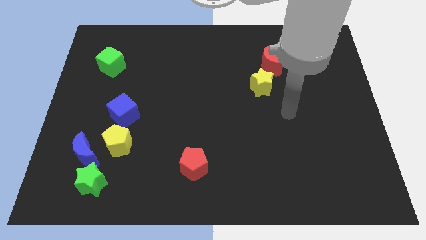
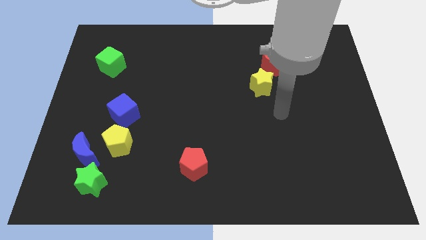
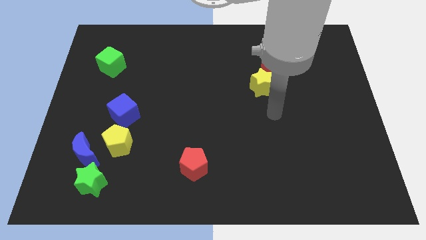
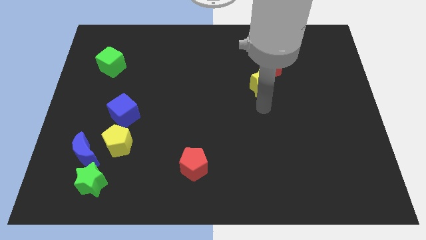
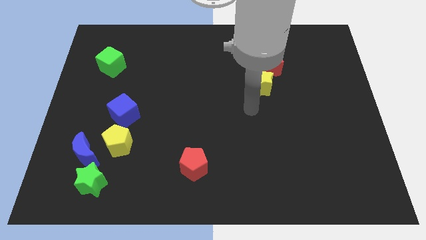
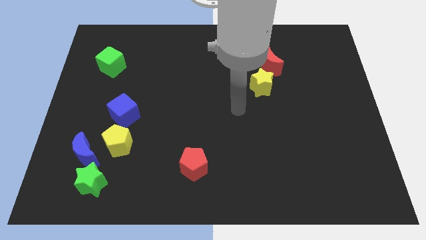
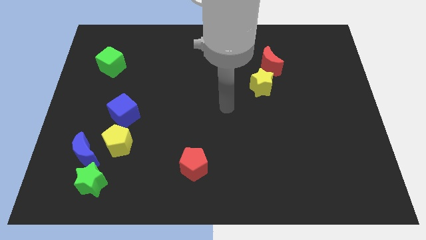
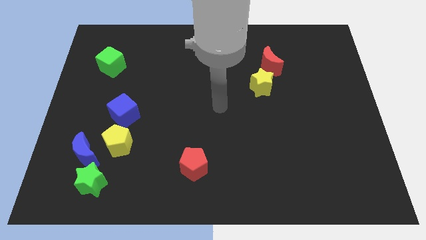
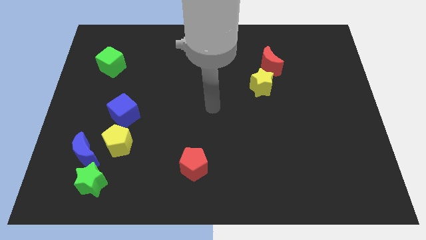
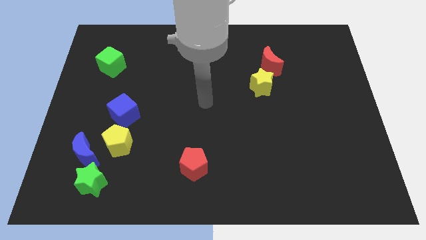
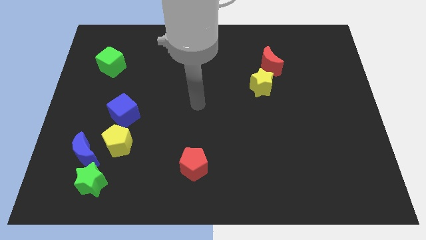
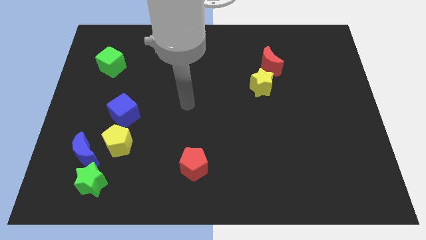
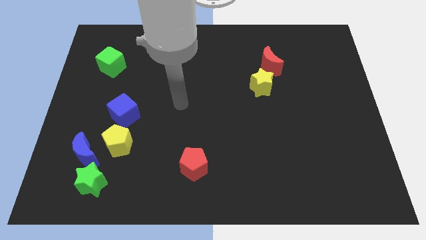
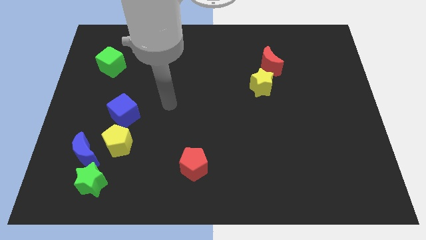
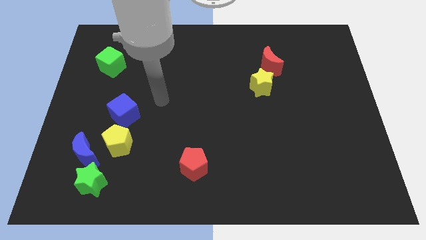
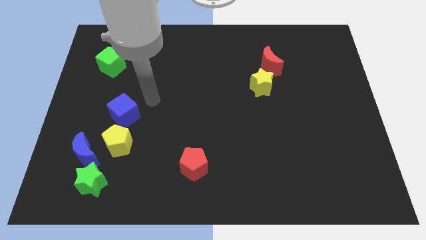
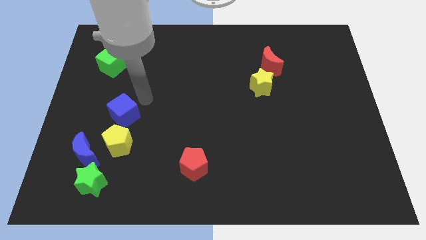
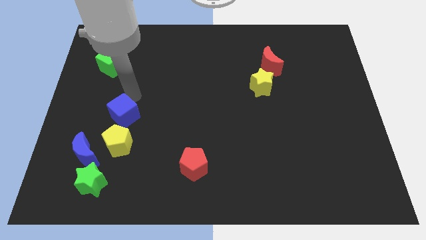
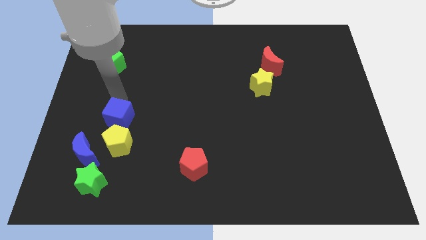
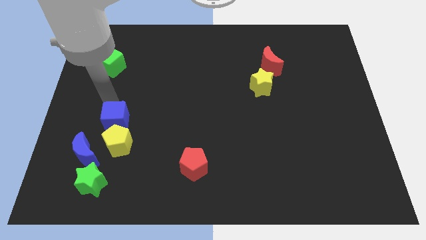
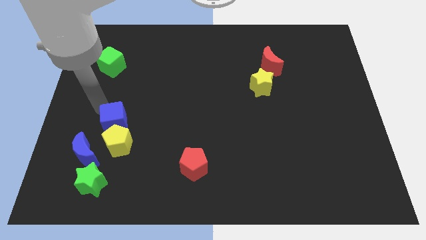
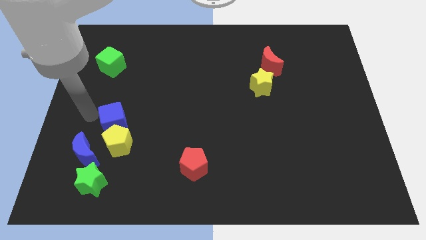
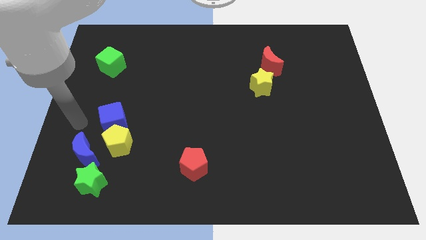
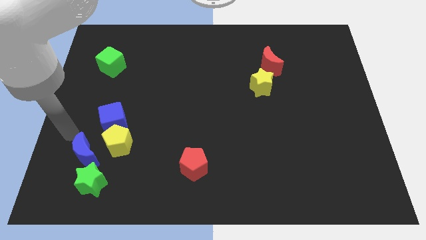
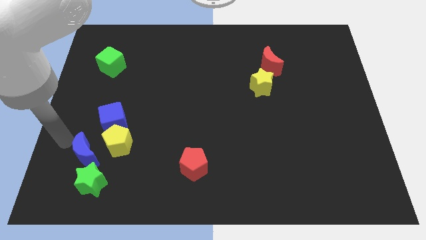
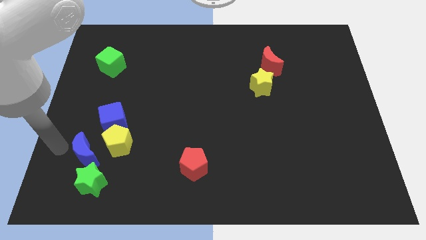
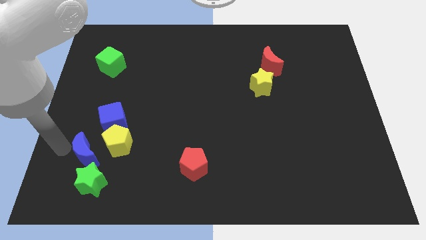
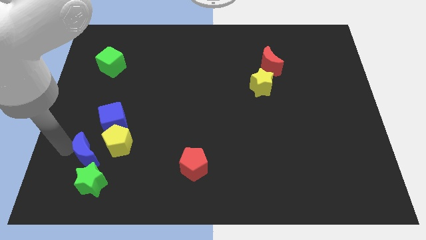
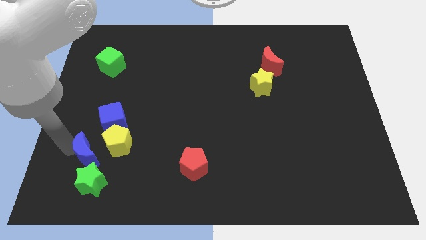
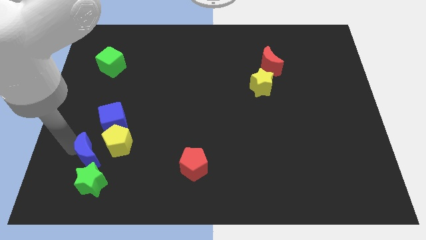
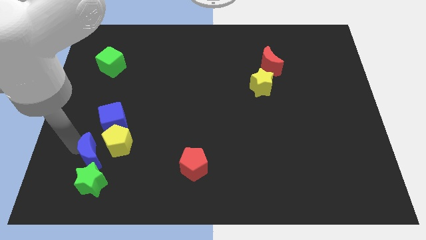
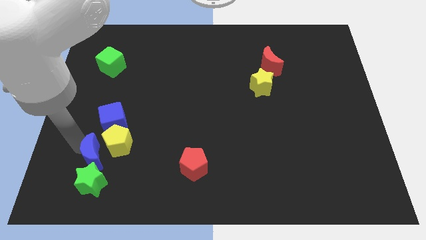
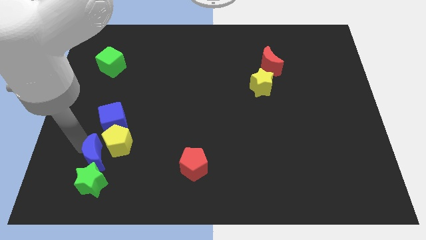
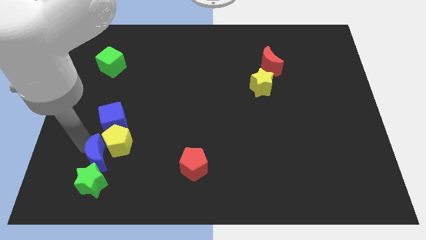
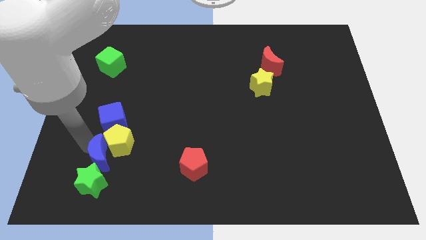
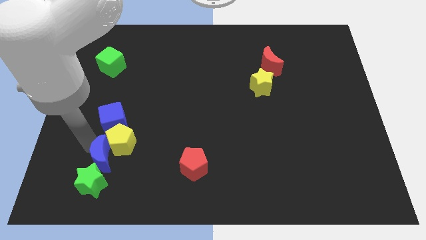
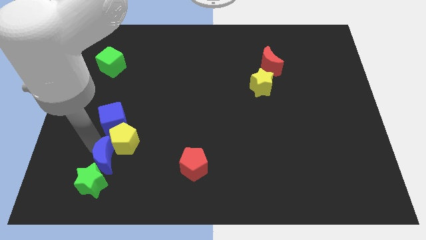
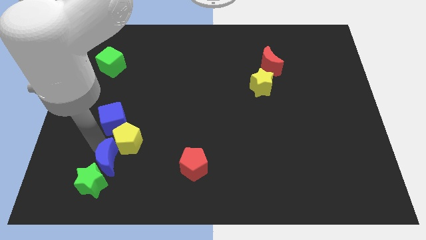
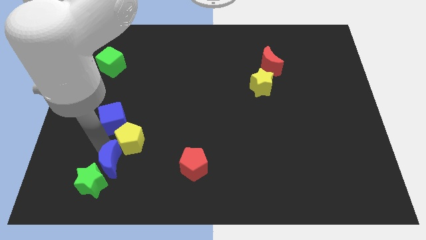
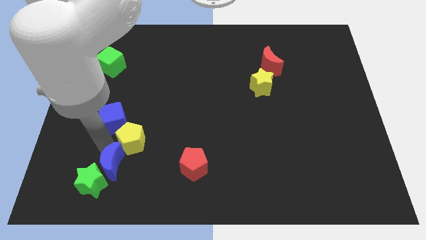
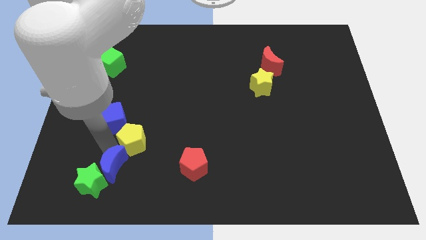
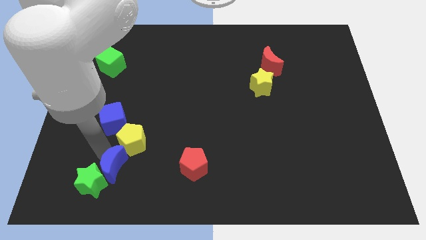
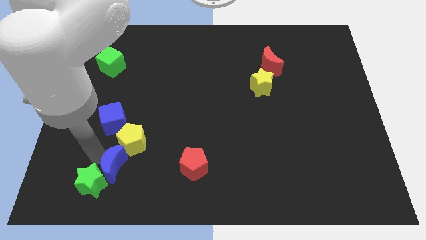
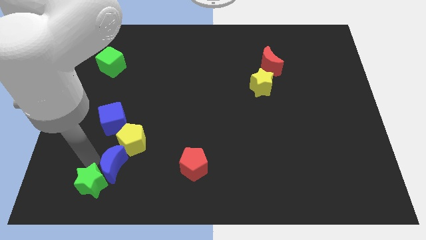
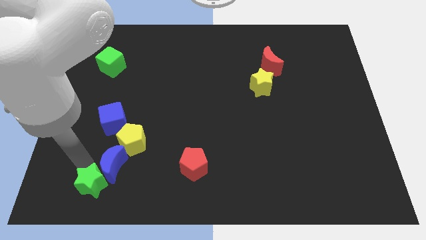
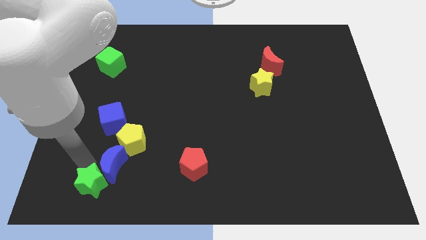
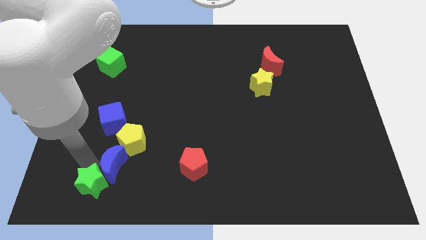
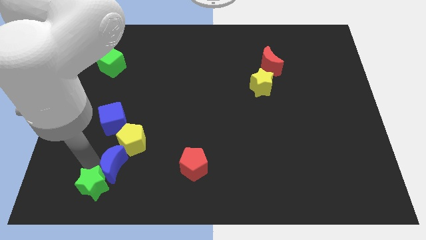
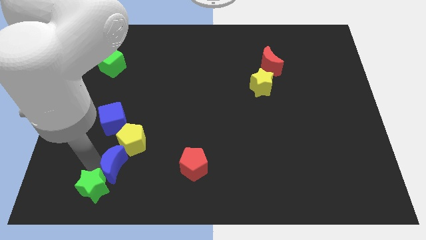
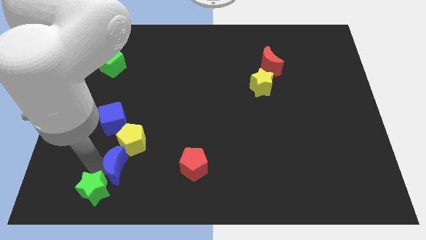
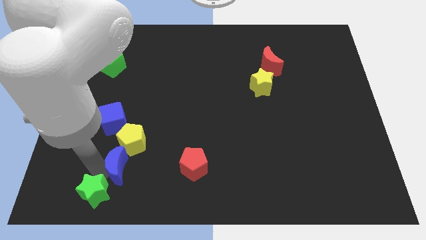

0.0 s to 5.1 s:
slightly slide the blue moon right

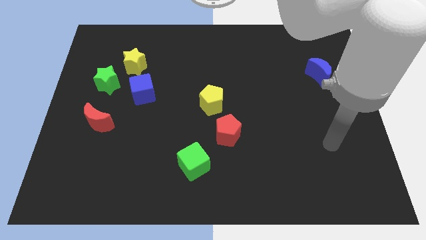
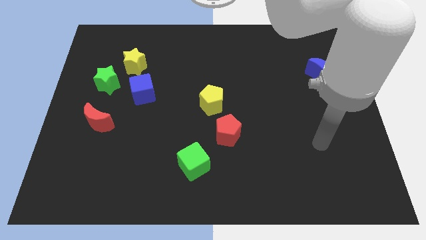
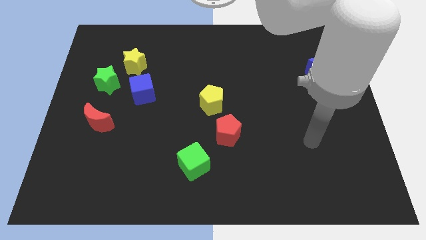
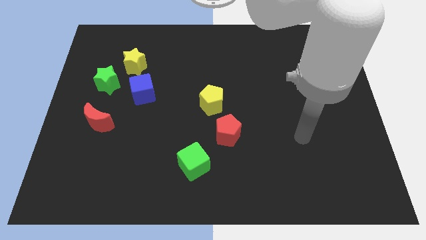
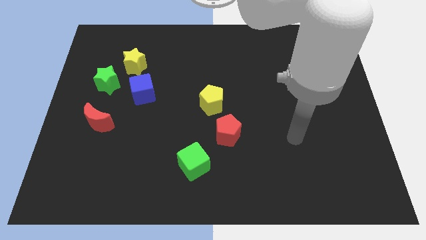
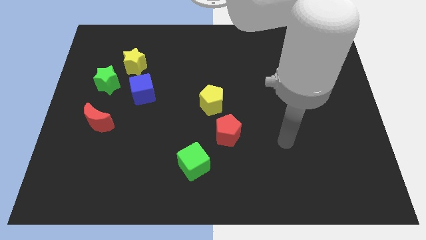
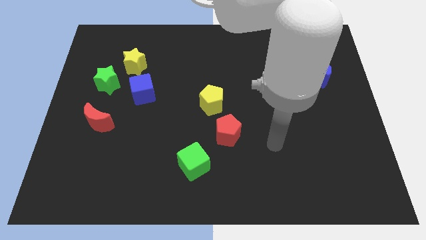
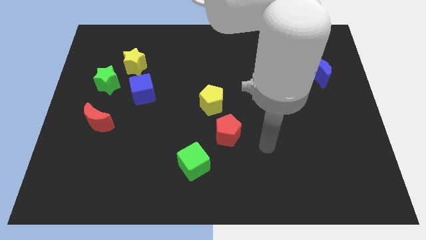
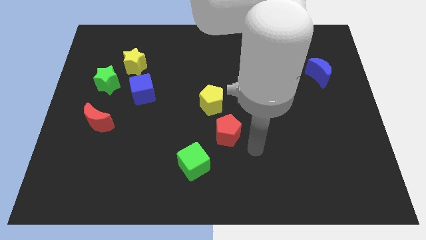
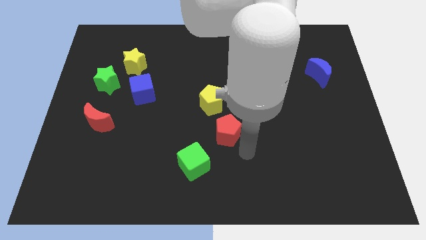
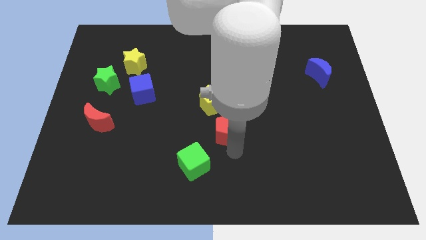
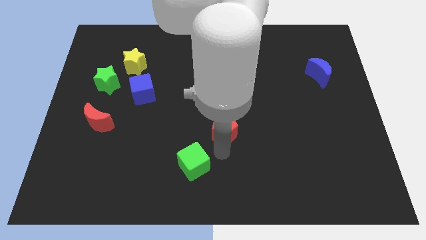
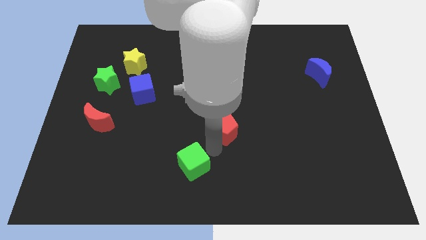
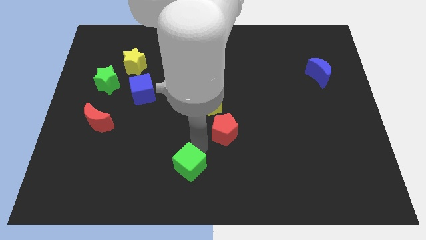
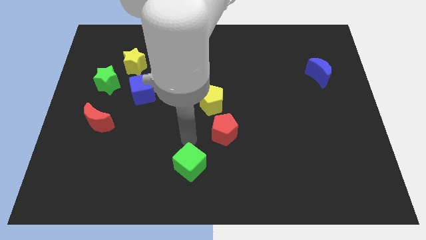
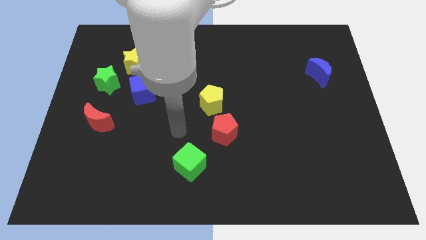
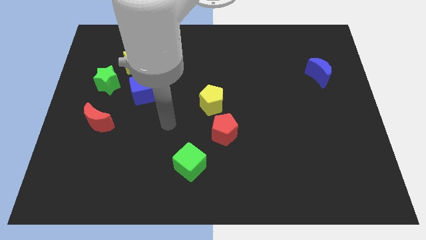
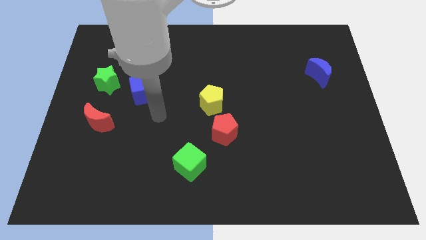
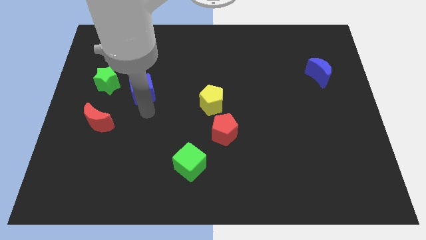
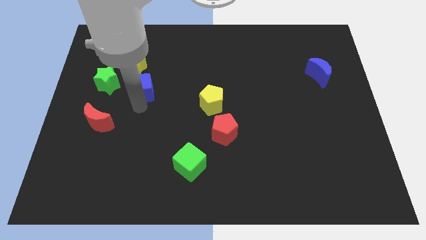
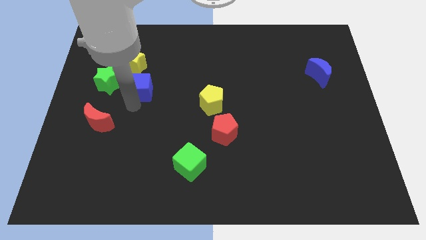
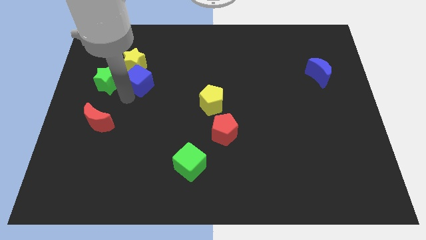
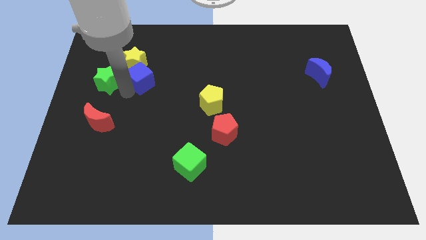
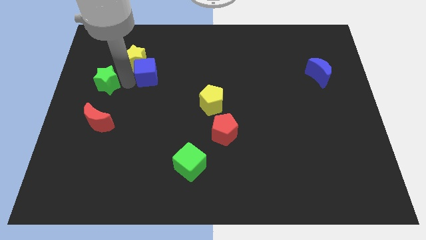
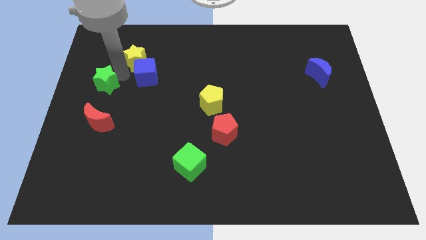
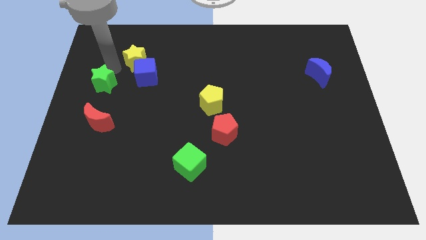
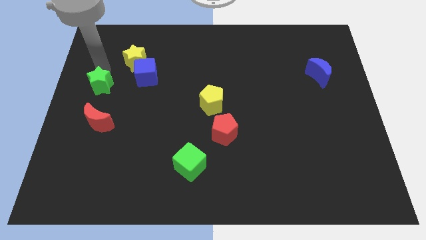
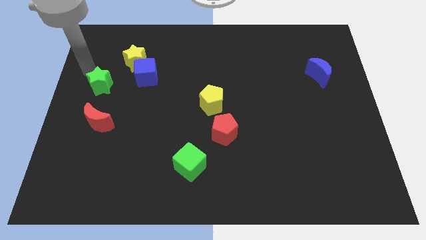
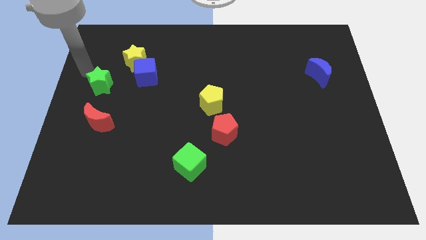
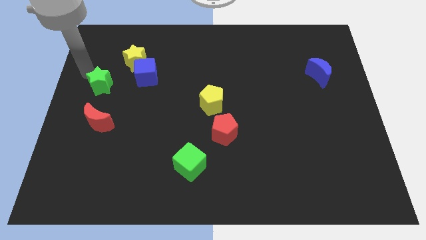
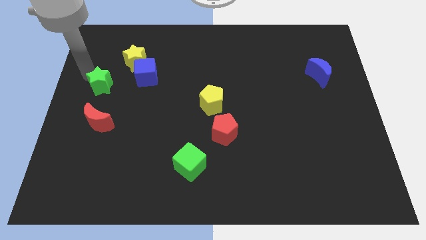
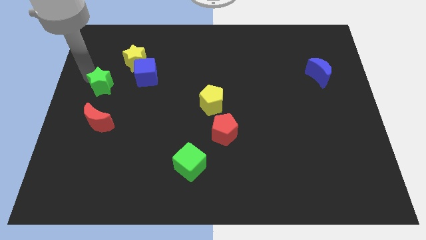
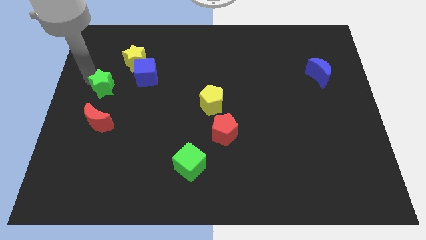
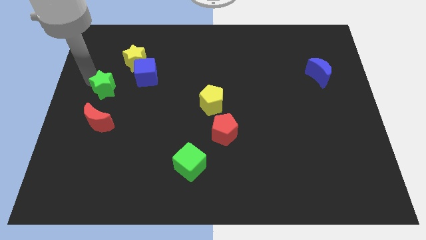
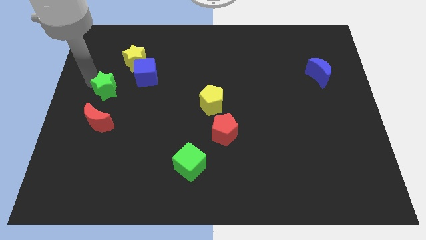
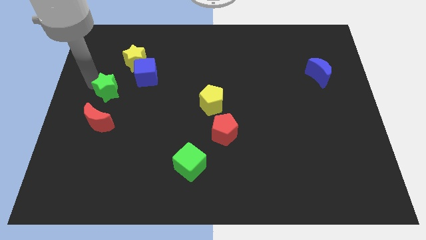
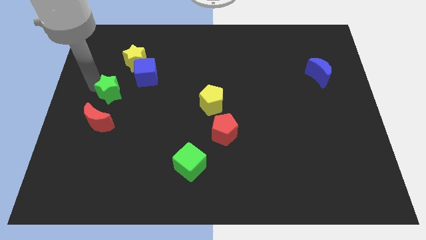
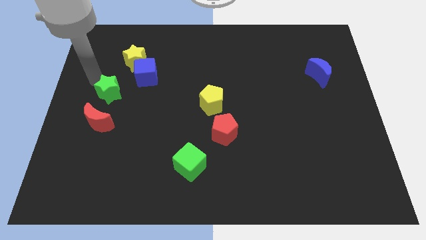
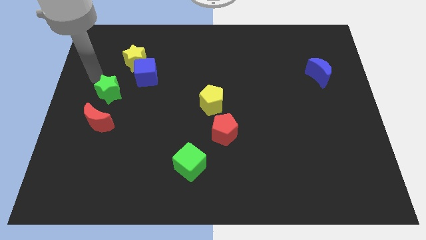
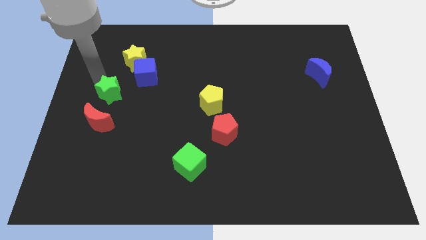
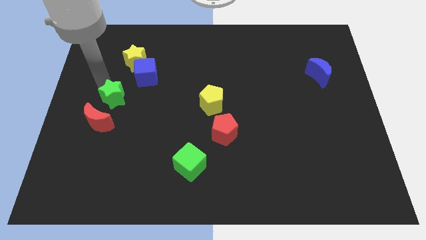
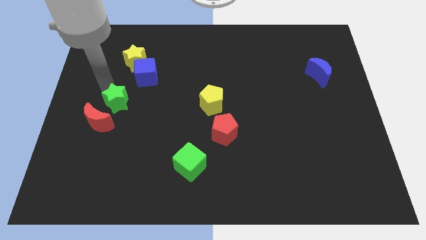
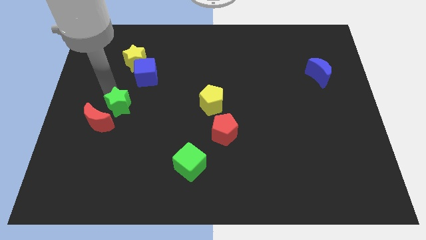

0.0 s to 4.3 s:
slide the green star diagonally downwards and to the right slightly
